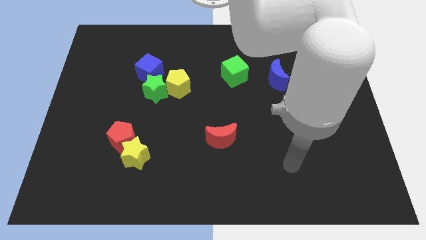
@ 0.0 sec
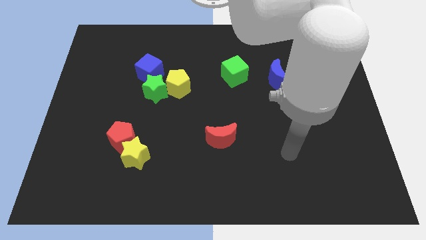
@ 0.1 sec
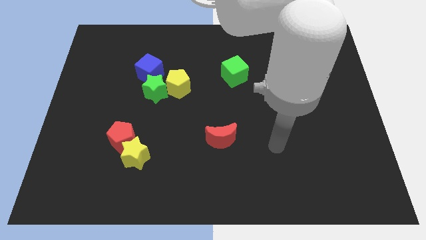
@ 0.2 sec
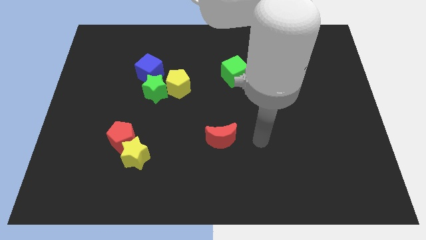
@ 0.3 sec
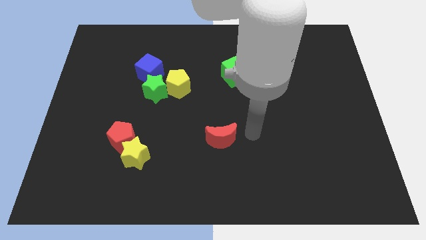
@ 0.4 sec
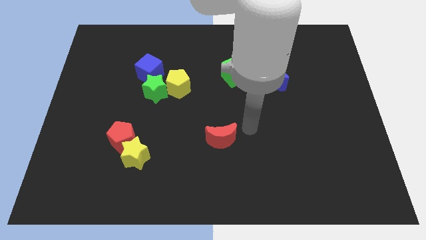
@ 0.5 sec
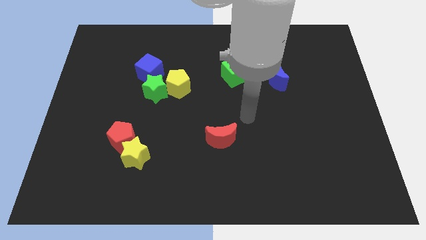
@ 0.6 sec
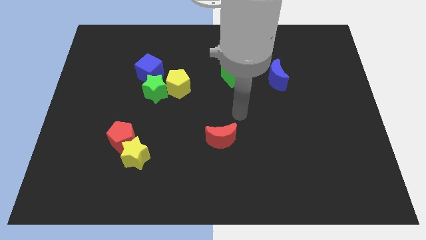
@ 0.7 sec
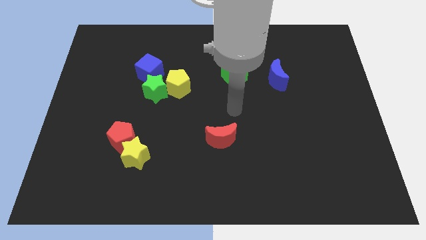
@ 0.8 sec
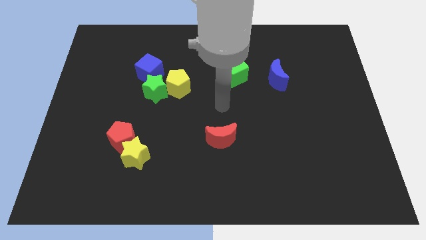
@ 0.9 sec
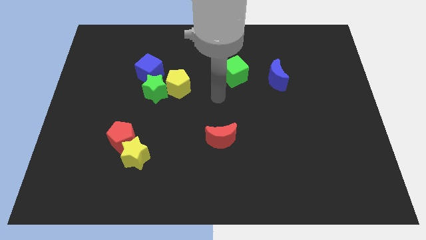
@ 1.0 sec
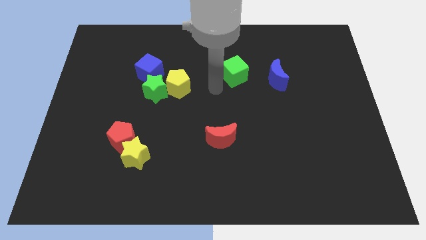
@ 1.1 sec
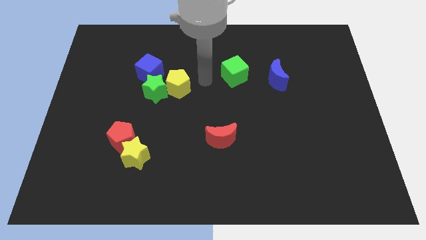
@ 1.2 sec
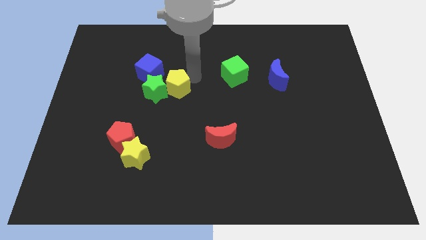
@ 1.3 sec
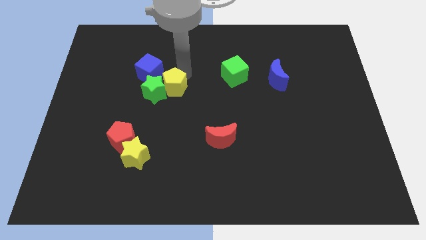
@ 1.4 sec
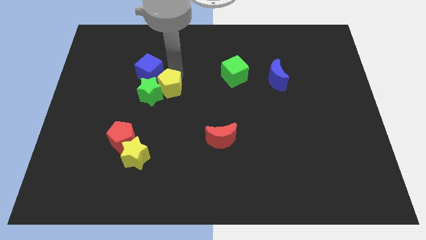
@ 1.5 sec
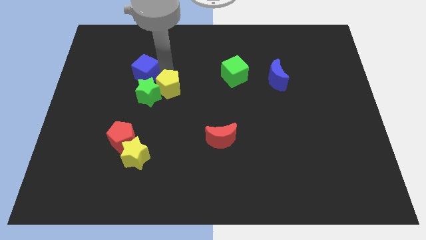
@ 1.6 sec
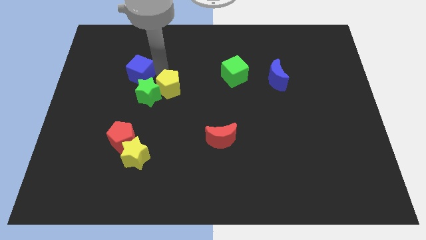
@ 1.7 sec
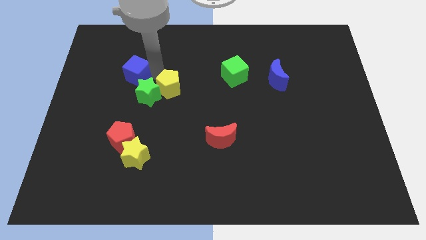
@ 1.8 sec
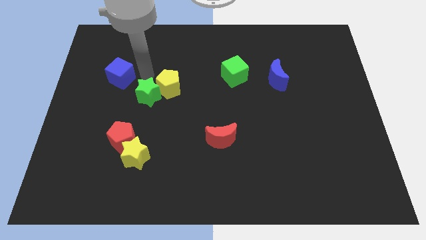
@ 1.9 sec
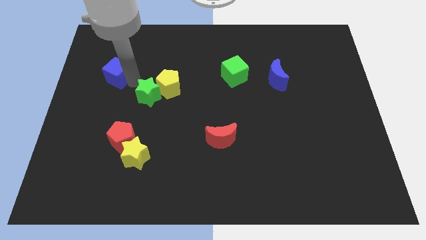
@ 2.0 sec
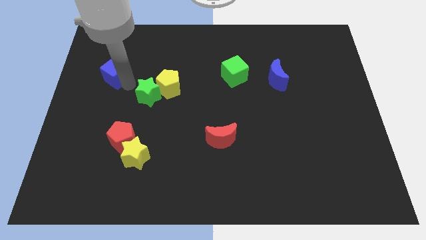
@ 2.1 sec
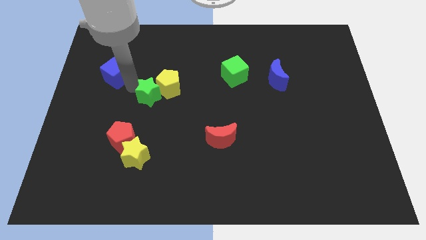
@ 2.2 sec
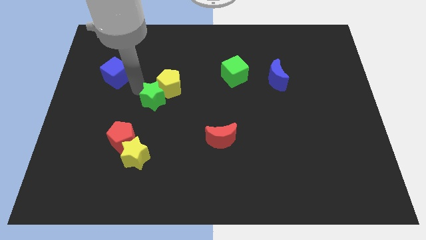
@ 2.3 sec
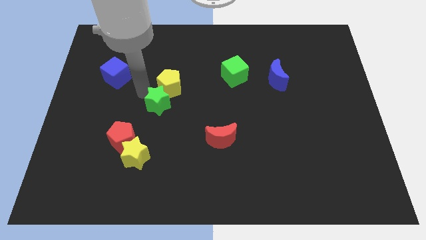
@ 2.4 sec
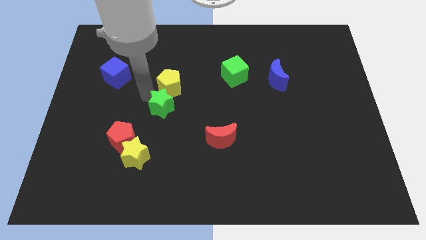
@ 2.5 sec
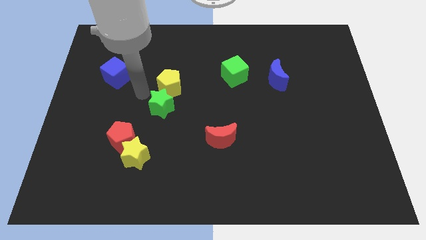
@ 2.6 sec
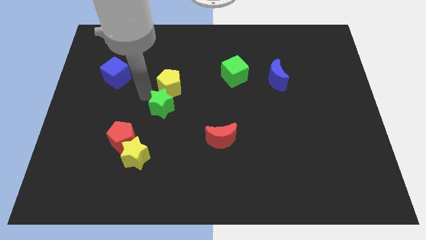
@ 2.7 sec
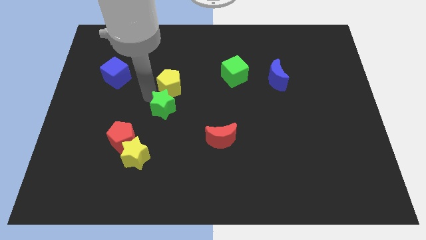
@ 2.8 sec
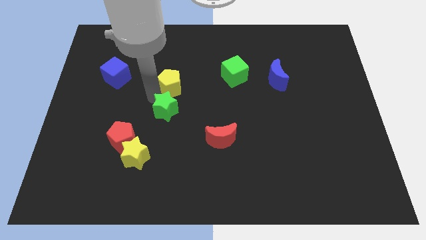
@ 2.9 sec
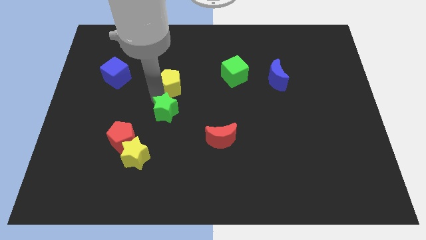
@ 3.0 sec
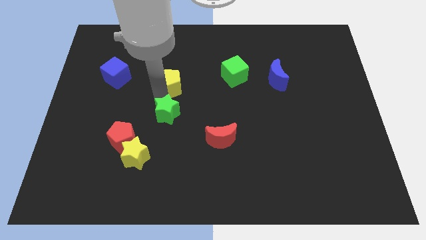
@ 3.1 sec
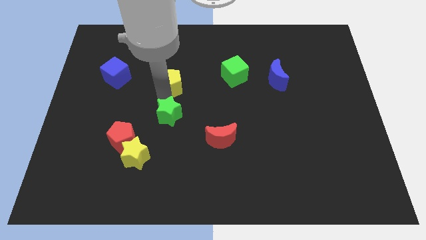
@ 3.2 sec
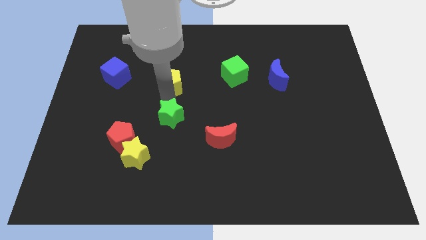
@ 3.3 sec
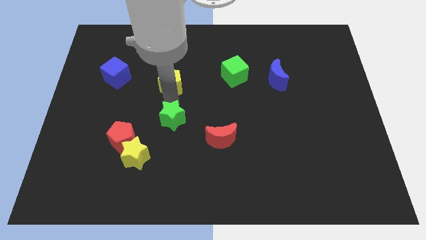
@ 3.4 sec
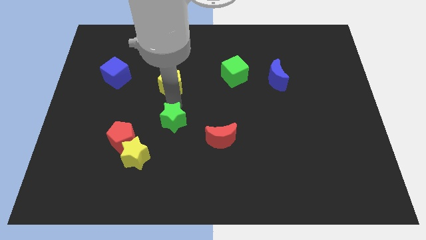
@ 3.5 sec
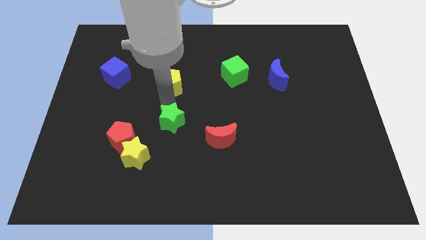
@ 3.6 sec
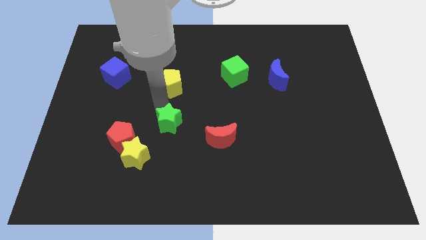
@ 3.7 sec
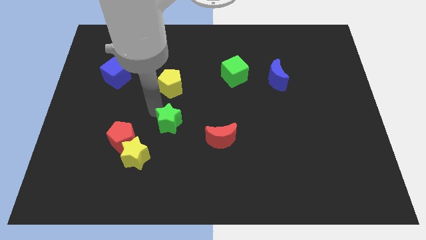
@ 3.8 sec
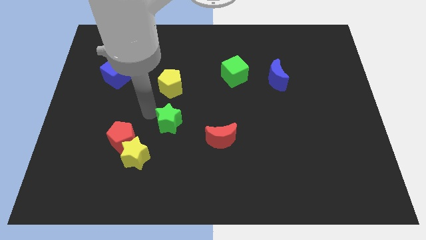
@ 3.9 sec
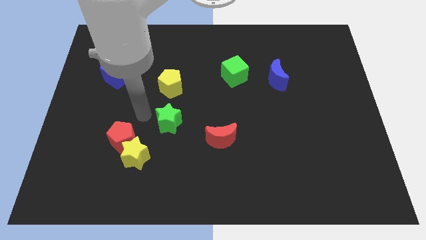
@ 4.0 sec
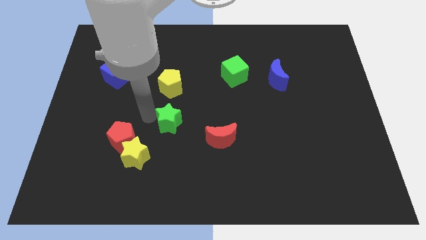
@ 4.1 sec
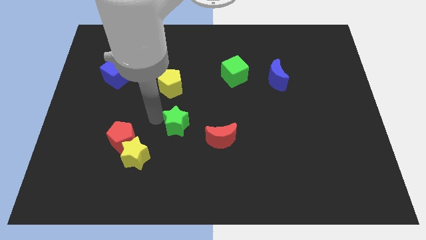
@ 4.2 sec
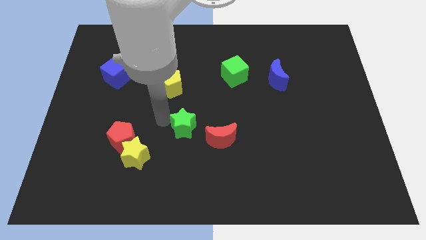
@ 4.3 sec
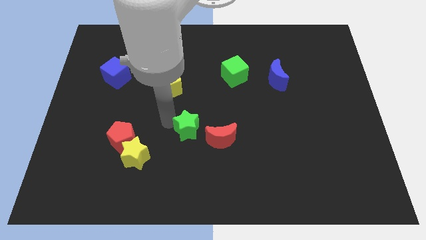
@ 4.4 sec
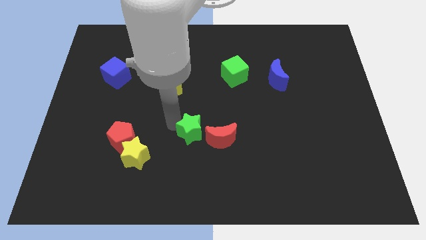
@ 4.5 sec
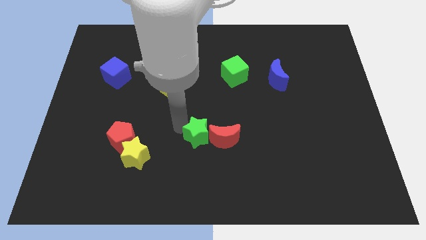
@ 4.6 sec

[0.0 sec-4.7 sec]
push the green star next to the red moon

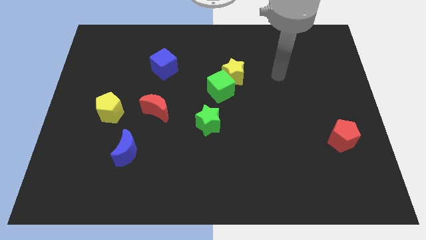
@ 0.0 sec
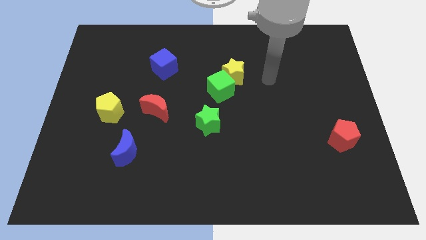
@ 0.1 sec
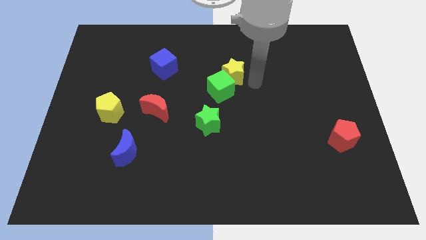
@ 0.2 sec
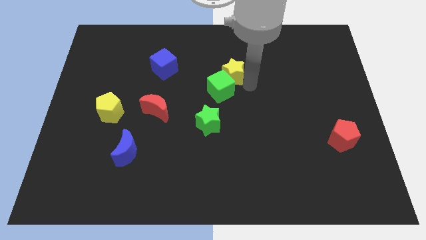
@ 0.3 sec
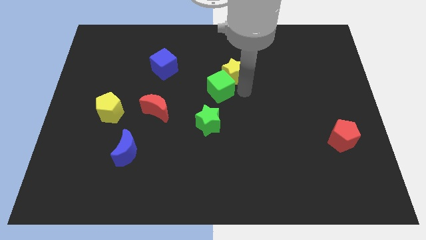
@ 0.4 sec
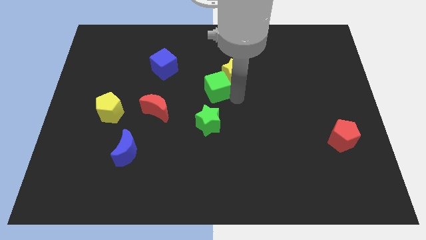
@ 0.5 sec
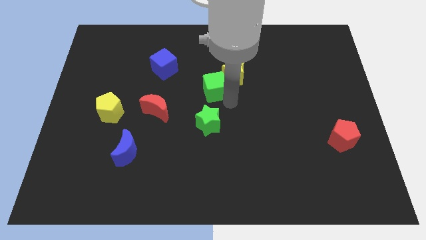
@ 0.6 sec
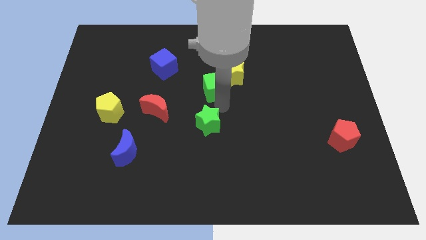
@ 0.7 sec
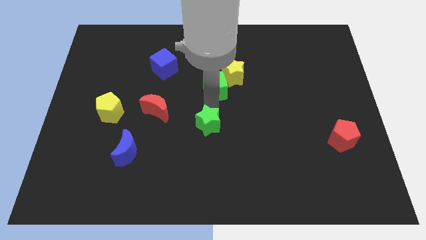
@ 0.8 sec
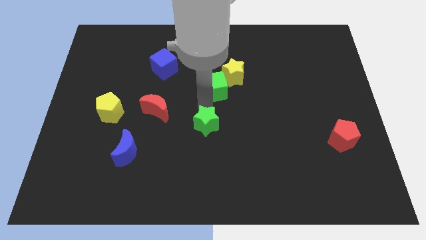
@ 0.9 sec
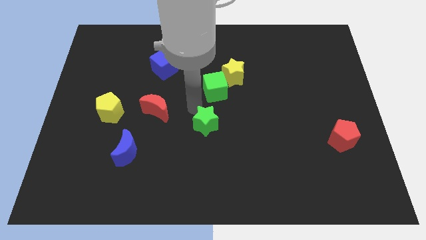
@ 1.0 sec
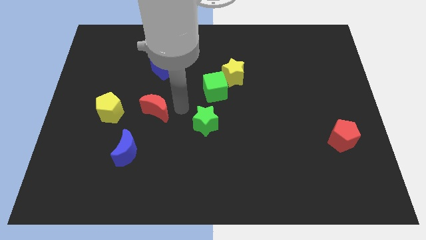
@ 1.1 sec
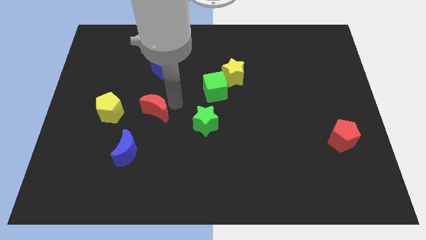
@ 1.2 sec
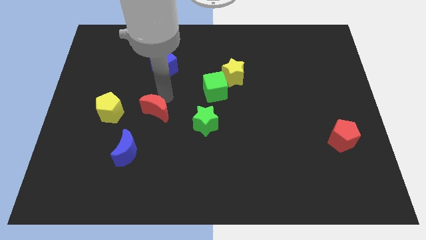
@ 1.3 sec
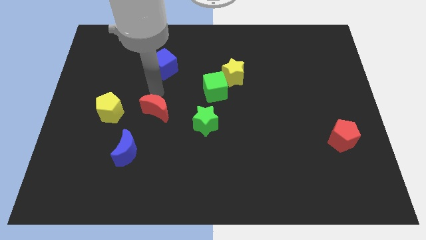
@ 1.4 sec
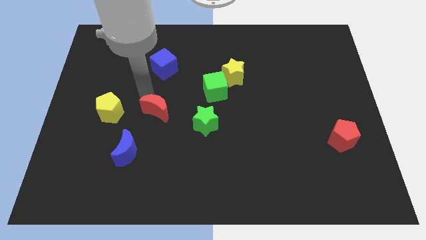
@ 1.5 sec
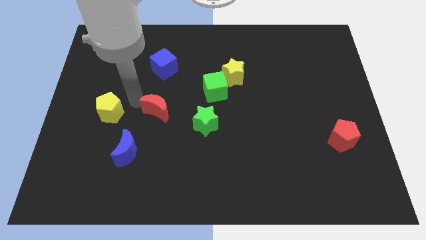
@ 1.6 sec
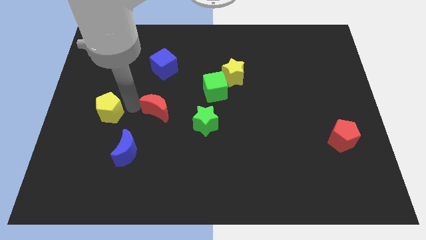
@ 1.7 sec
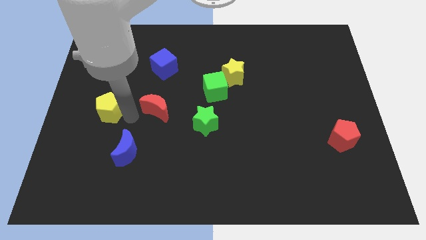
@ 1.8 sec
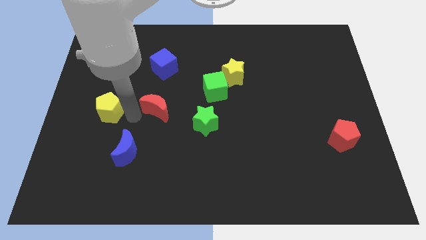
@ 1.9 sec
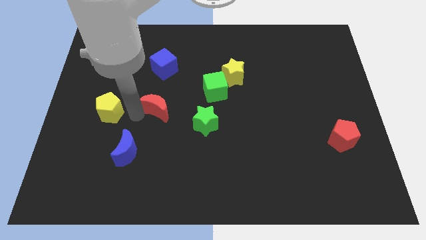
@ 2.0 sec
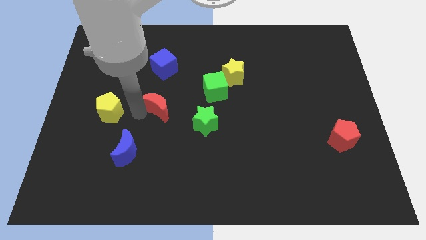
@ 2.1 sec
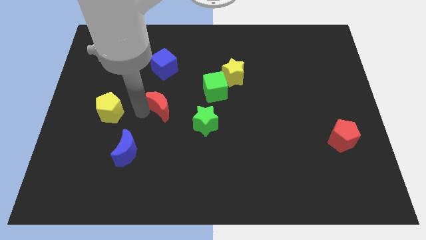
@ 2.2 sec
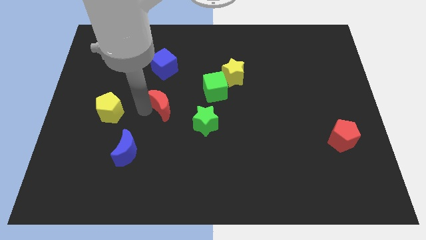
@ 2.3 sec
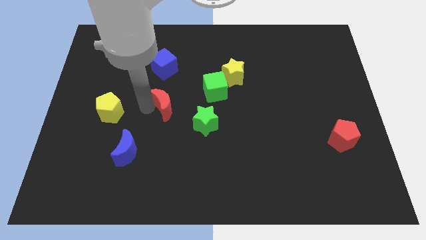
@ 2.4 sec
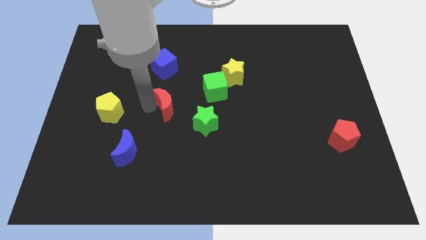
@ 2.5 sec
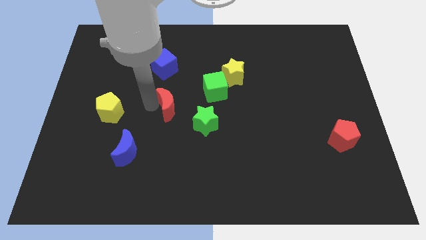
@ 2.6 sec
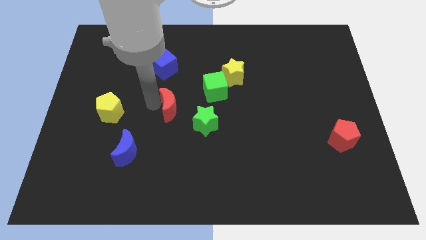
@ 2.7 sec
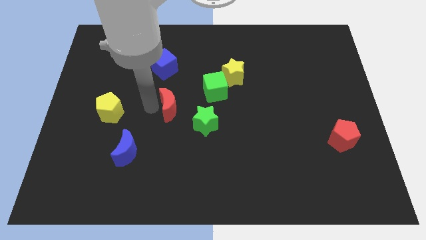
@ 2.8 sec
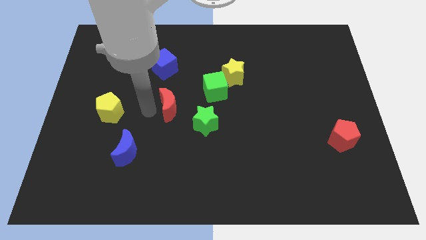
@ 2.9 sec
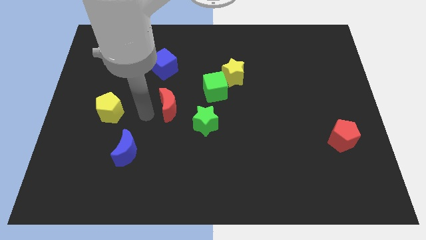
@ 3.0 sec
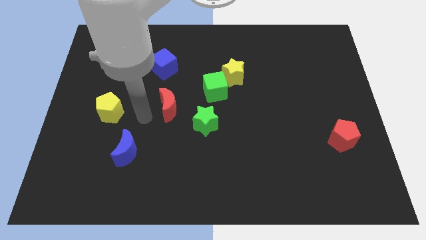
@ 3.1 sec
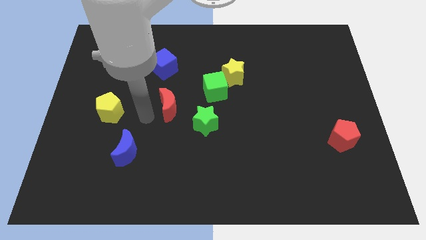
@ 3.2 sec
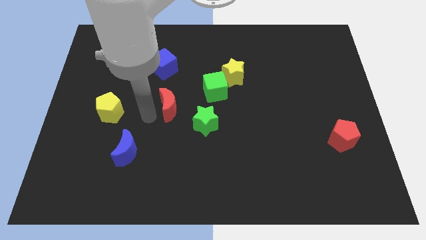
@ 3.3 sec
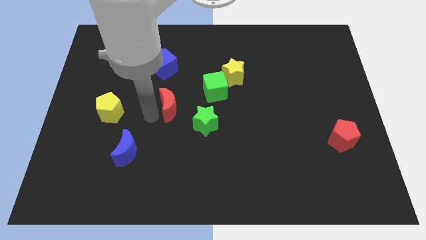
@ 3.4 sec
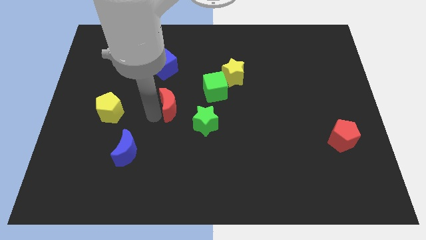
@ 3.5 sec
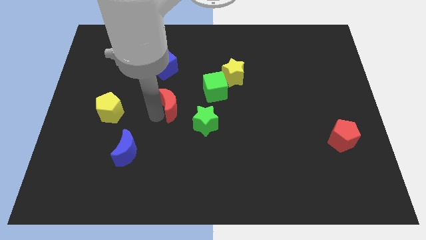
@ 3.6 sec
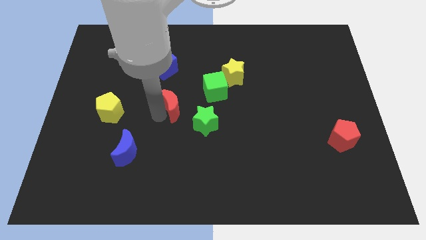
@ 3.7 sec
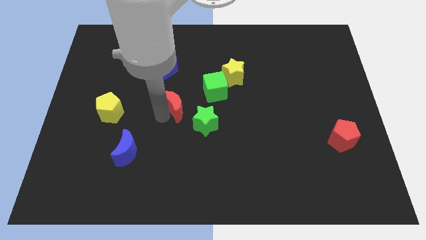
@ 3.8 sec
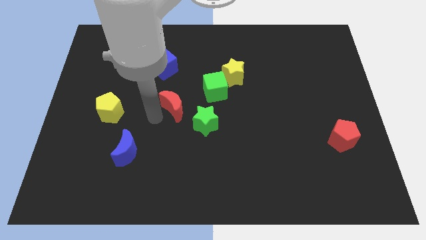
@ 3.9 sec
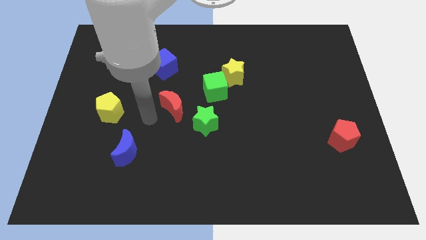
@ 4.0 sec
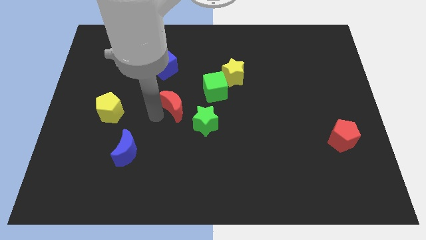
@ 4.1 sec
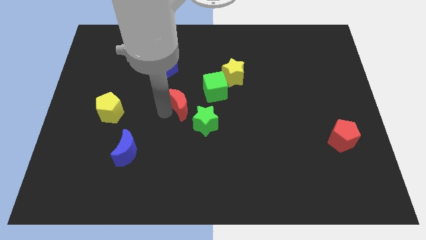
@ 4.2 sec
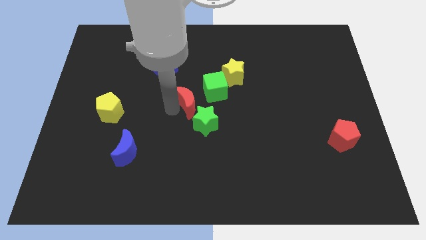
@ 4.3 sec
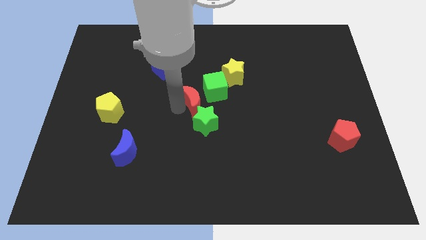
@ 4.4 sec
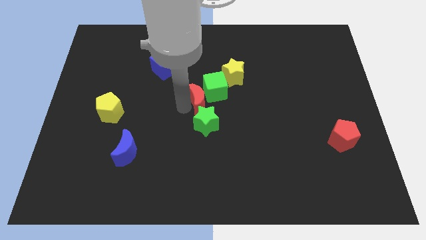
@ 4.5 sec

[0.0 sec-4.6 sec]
slide the red moon close to the green cube
